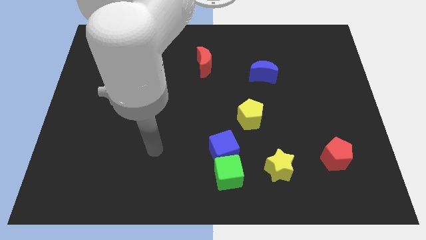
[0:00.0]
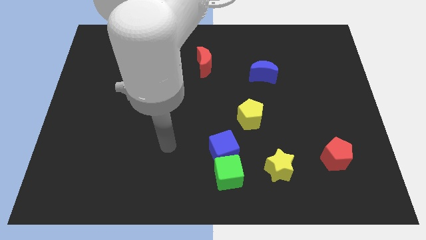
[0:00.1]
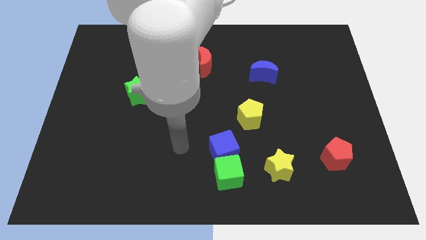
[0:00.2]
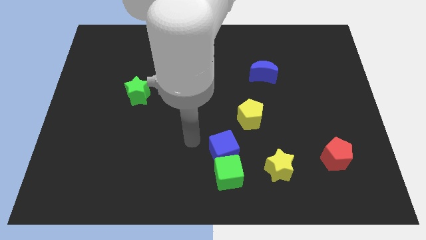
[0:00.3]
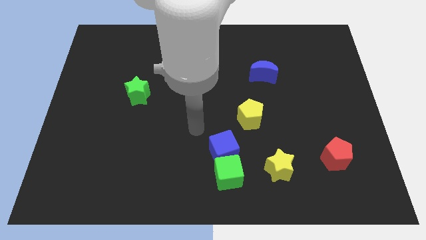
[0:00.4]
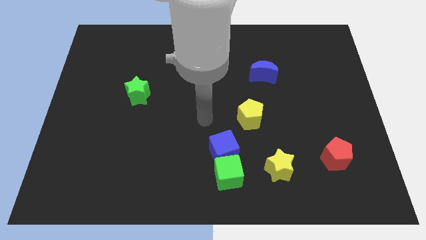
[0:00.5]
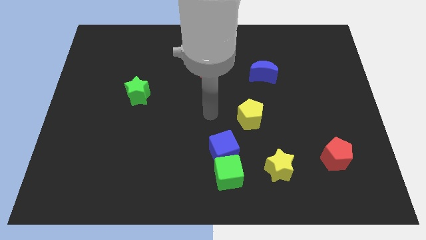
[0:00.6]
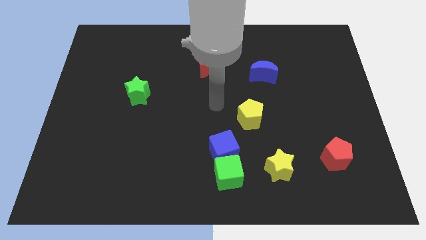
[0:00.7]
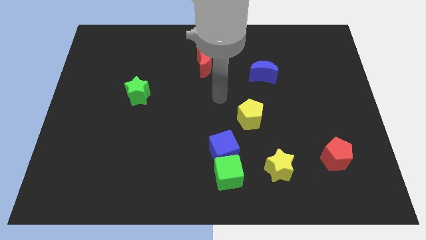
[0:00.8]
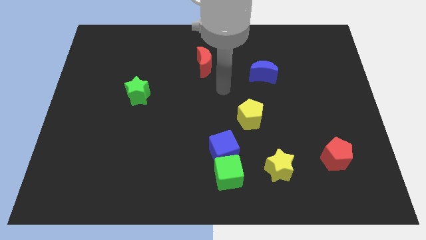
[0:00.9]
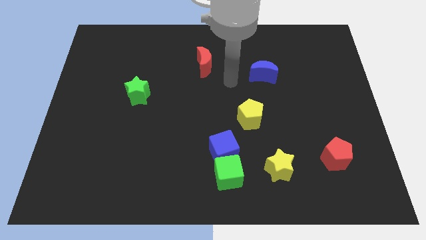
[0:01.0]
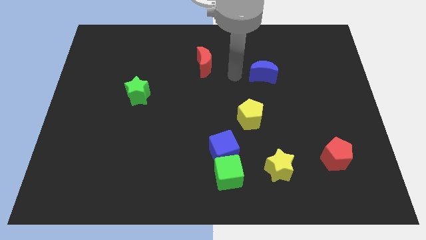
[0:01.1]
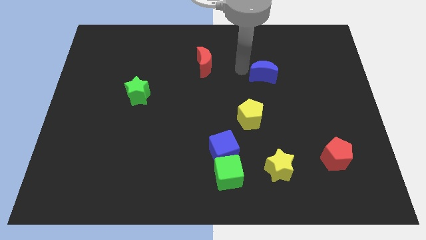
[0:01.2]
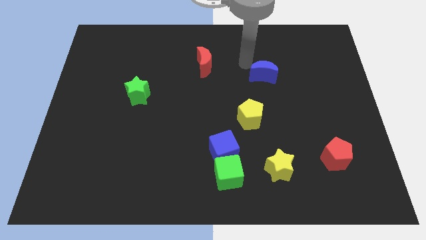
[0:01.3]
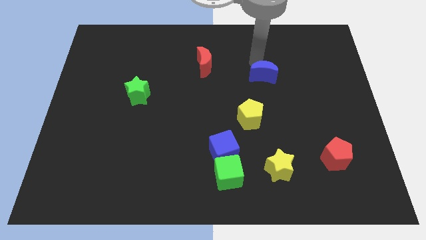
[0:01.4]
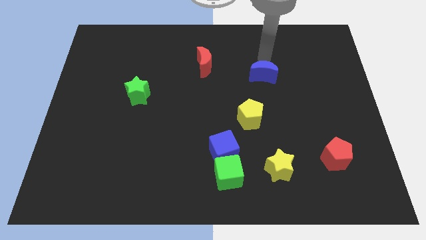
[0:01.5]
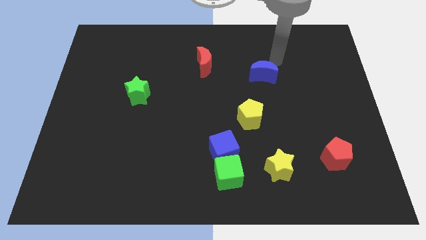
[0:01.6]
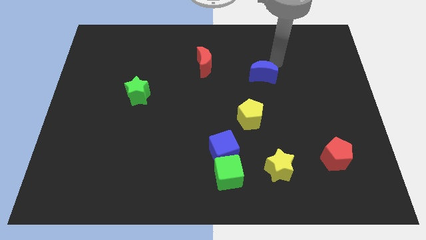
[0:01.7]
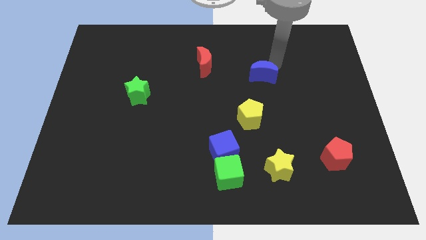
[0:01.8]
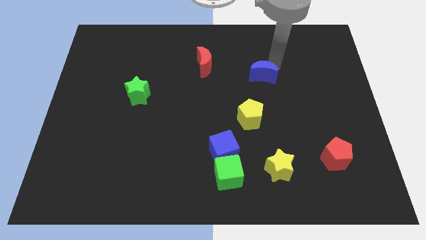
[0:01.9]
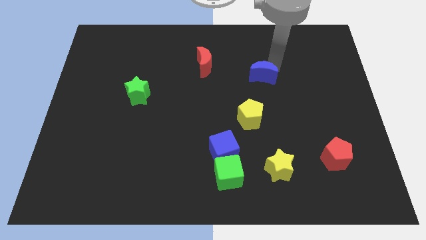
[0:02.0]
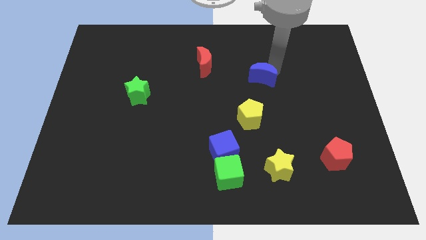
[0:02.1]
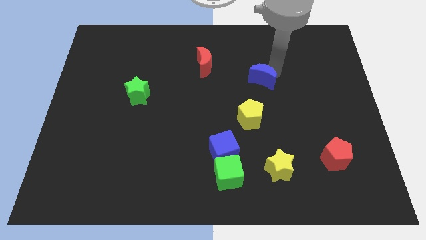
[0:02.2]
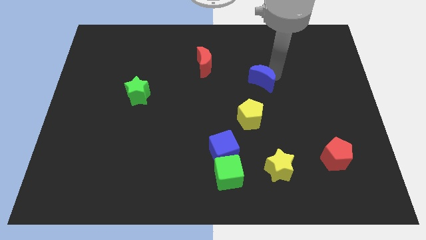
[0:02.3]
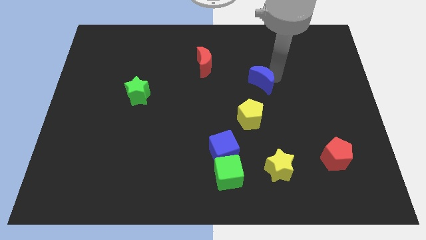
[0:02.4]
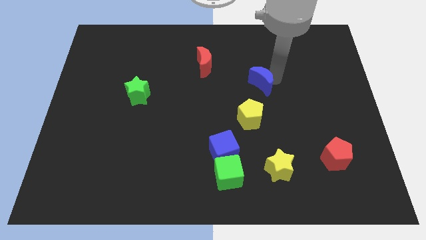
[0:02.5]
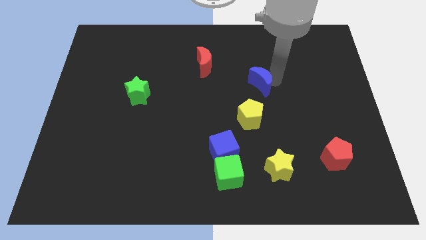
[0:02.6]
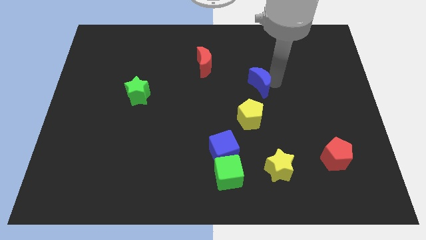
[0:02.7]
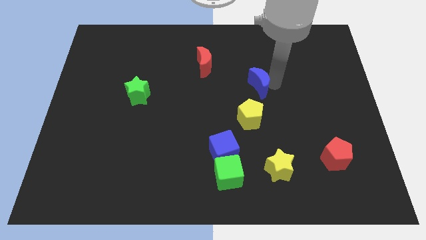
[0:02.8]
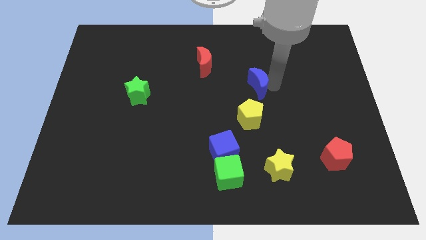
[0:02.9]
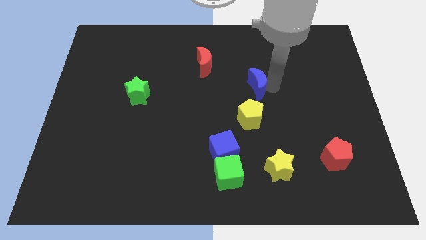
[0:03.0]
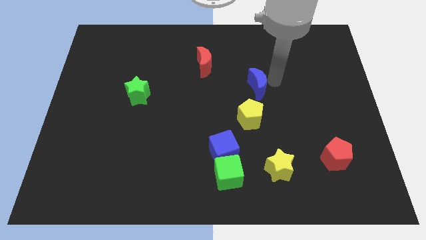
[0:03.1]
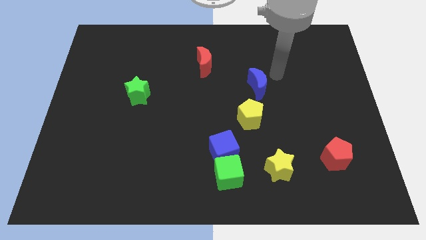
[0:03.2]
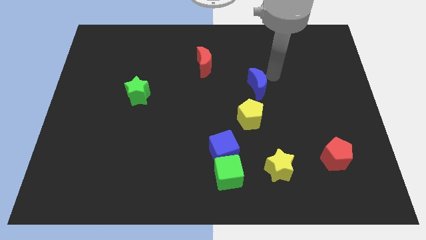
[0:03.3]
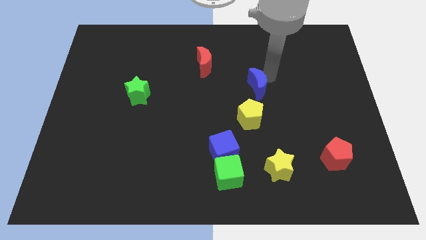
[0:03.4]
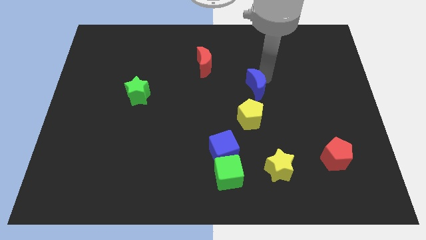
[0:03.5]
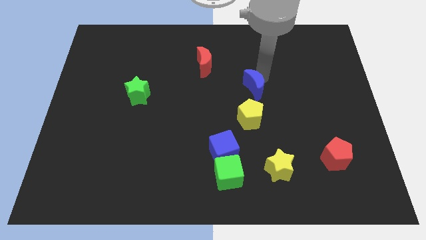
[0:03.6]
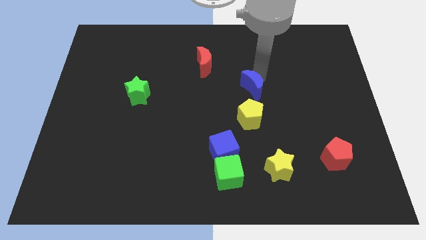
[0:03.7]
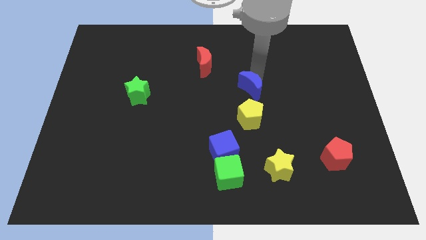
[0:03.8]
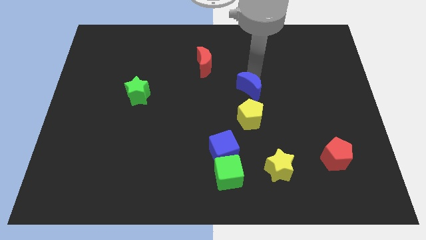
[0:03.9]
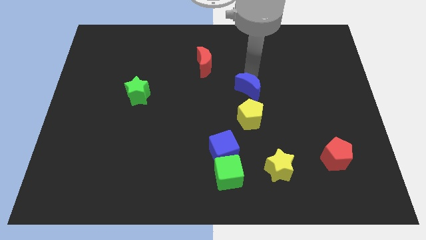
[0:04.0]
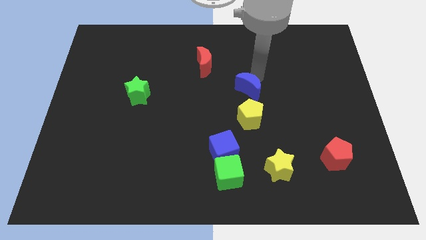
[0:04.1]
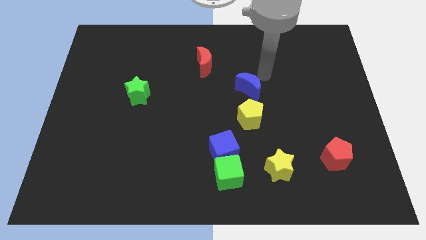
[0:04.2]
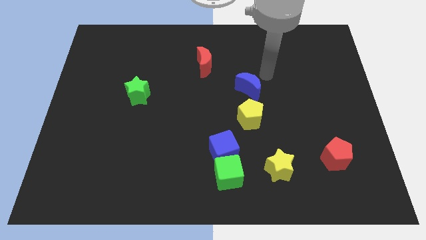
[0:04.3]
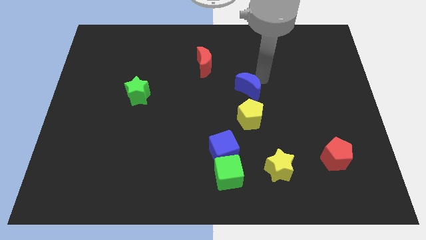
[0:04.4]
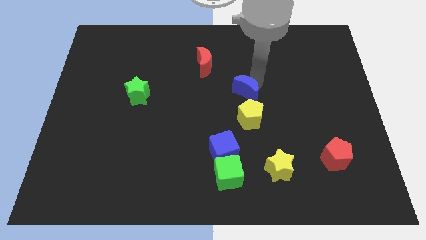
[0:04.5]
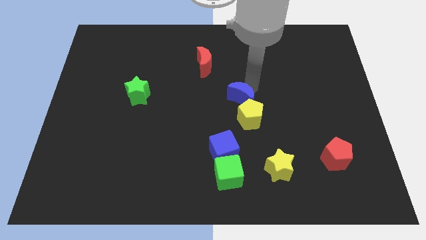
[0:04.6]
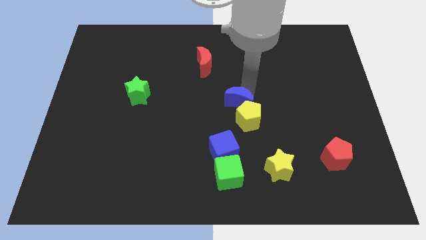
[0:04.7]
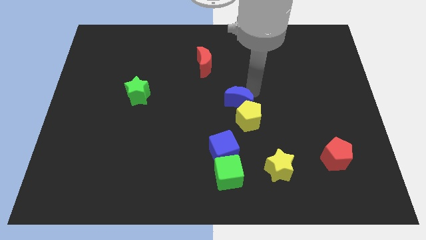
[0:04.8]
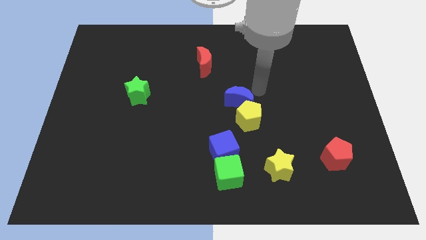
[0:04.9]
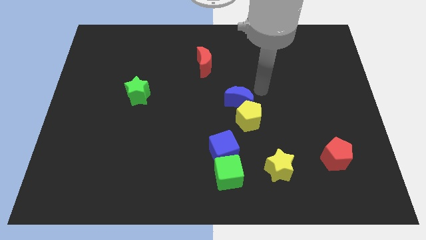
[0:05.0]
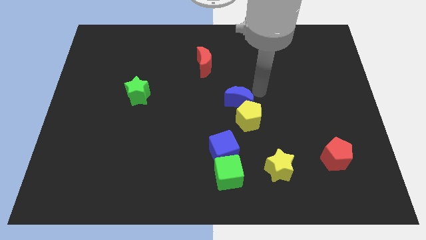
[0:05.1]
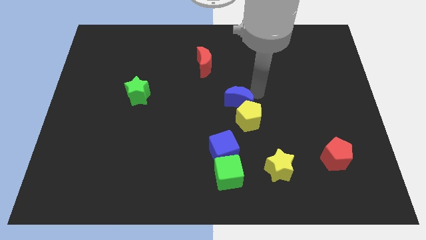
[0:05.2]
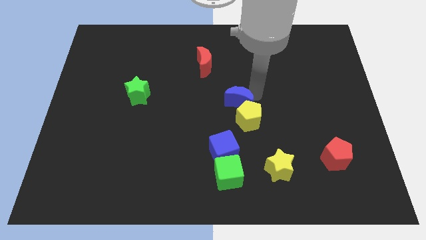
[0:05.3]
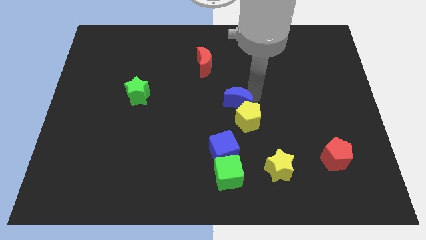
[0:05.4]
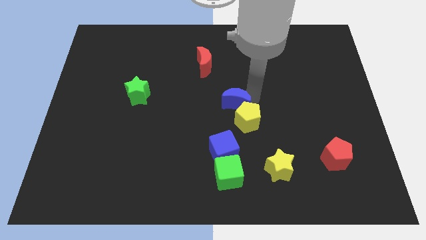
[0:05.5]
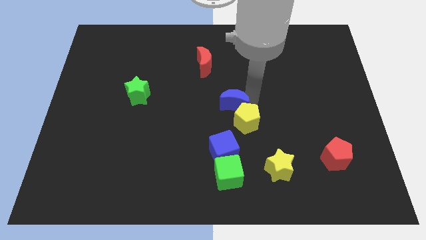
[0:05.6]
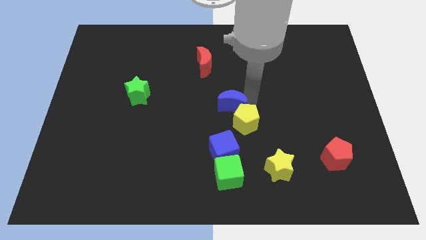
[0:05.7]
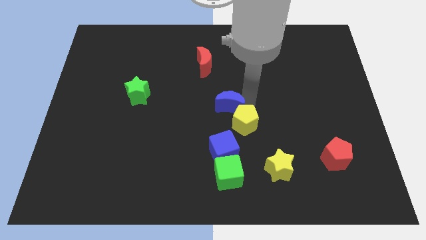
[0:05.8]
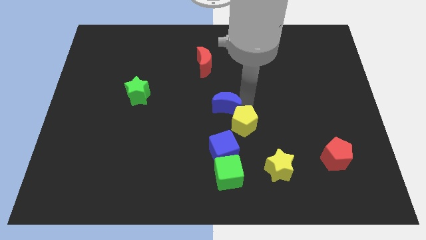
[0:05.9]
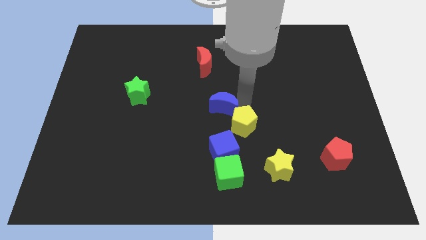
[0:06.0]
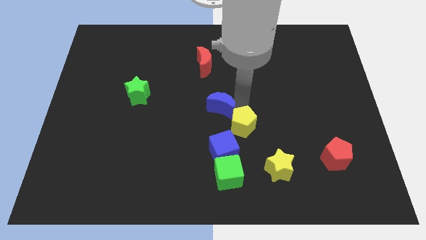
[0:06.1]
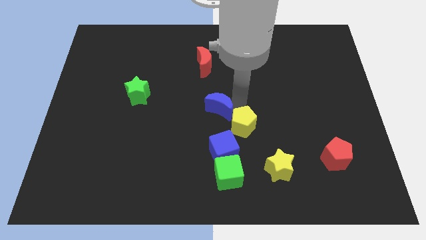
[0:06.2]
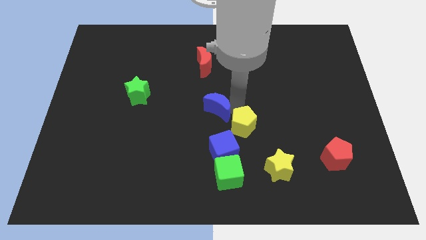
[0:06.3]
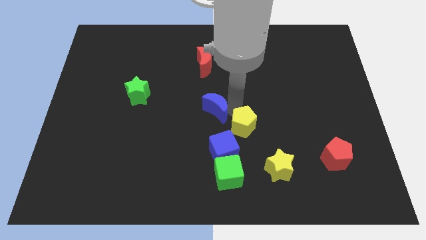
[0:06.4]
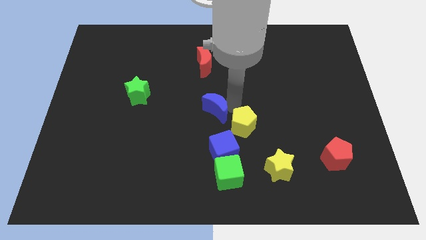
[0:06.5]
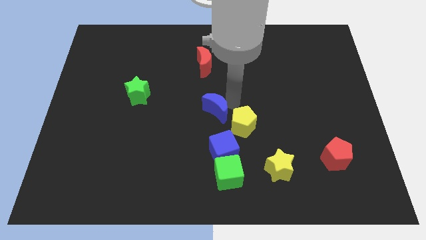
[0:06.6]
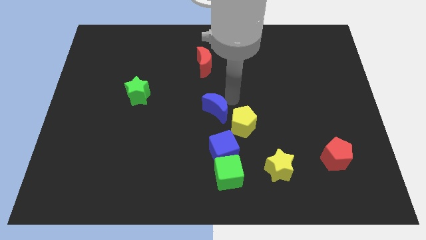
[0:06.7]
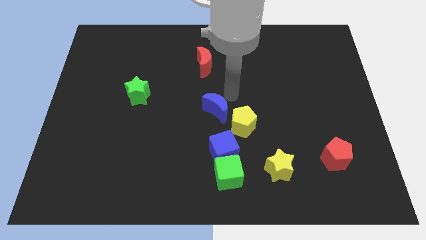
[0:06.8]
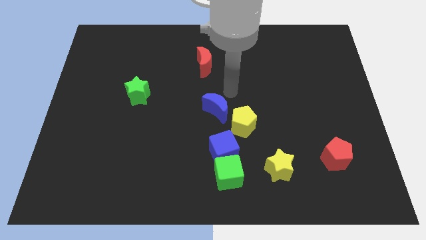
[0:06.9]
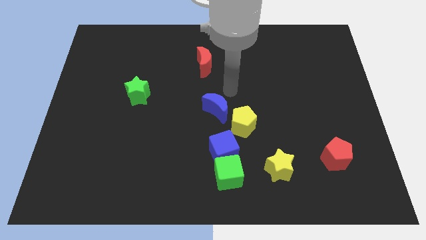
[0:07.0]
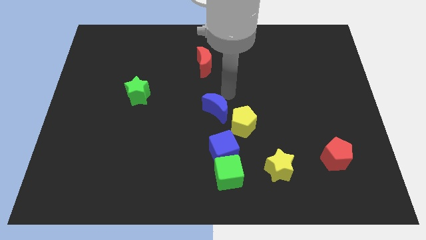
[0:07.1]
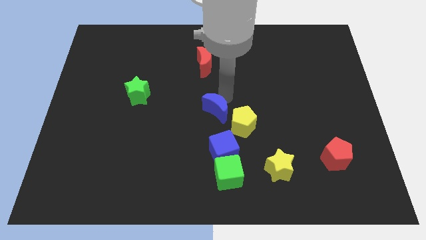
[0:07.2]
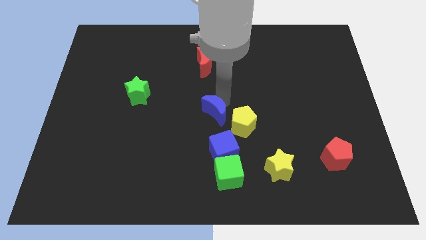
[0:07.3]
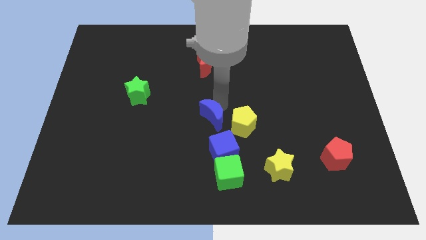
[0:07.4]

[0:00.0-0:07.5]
move the blue moon diagonally up and to the left of the blue cube
